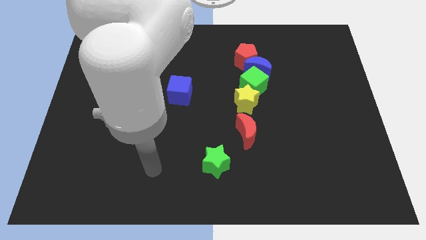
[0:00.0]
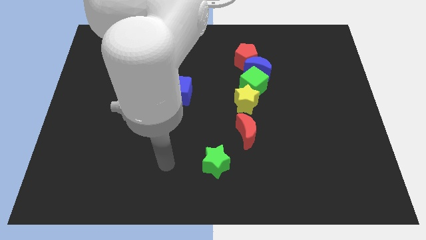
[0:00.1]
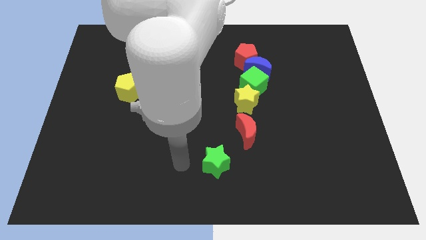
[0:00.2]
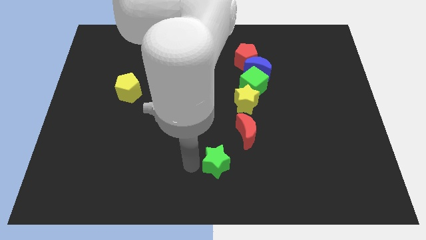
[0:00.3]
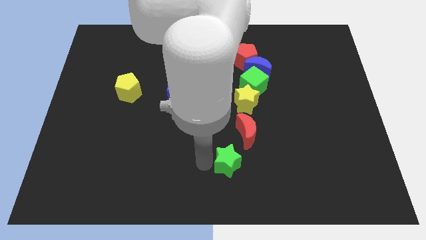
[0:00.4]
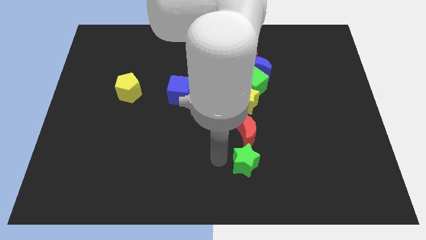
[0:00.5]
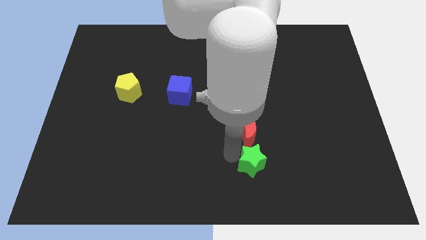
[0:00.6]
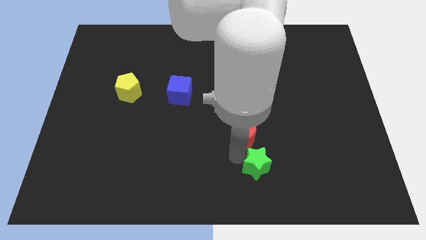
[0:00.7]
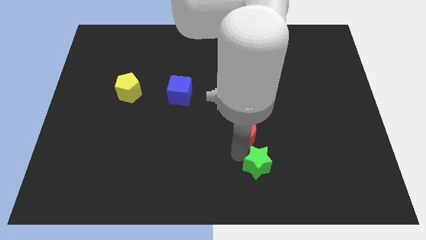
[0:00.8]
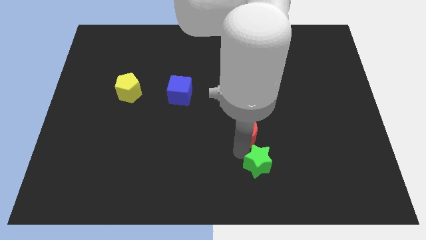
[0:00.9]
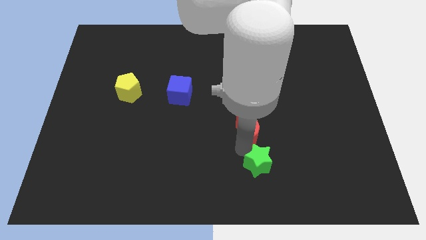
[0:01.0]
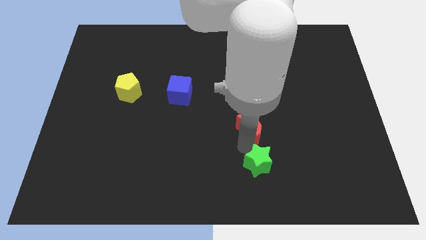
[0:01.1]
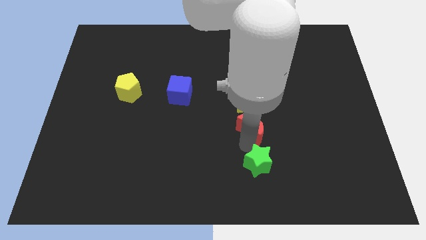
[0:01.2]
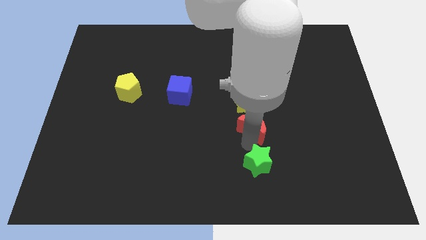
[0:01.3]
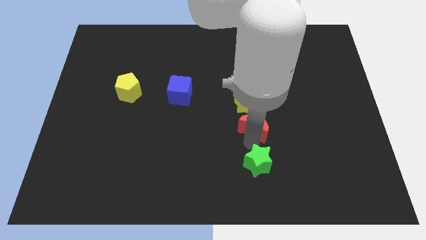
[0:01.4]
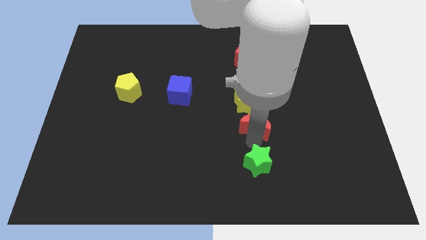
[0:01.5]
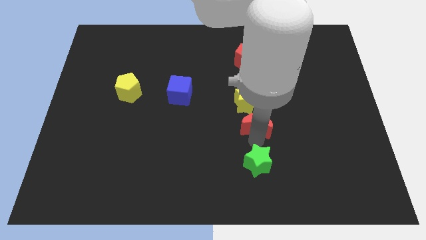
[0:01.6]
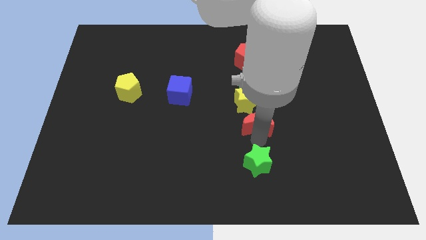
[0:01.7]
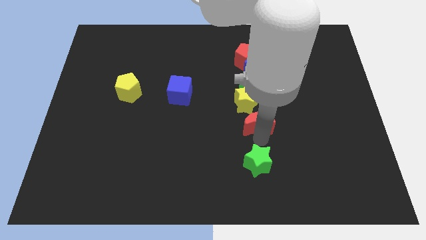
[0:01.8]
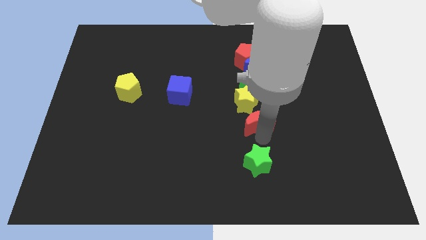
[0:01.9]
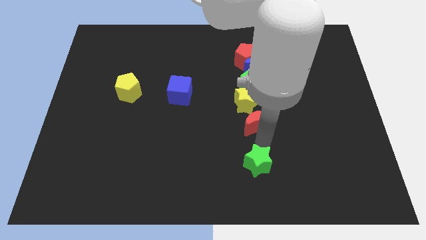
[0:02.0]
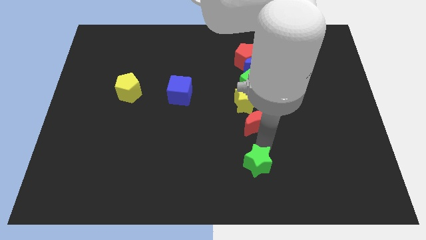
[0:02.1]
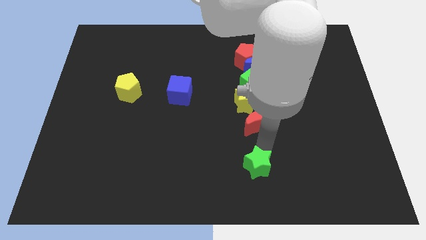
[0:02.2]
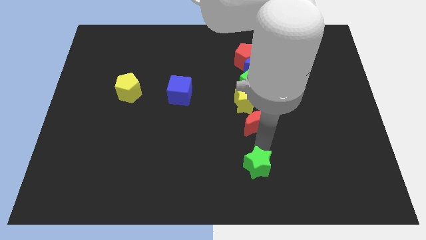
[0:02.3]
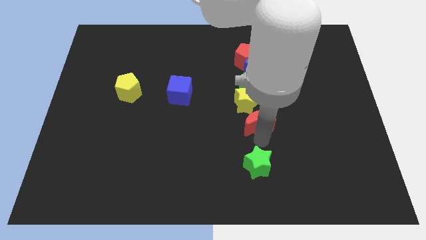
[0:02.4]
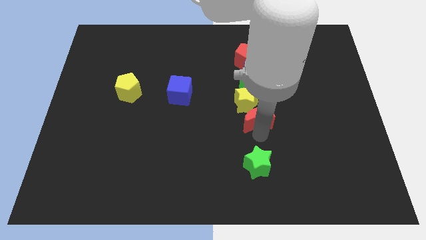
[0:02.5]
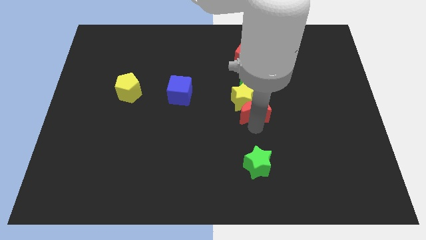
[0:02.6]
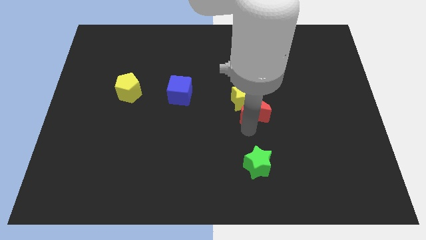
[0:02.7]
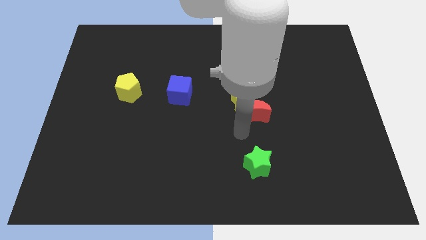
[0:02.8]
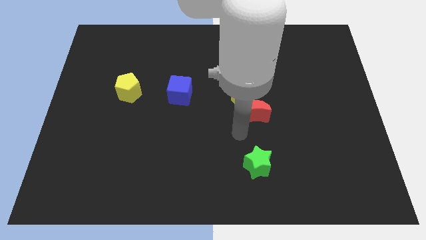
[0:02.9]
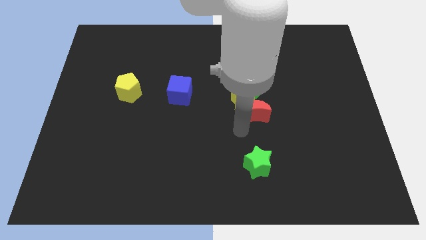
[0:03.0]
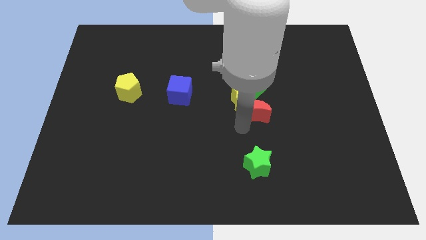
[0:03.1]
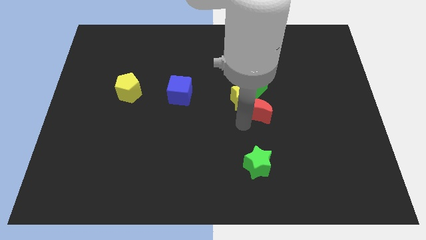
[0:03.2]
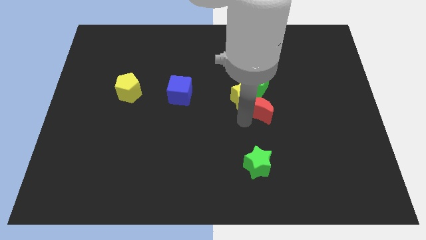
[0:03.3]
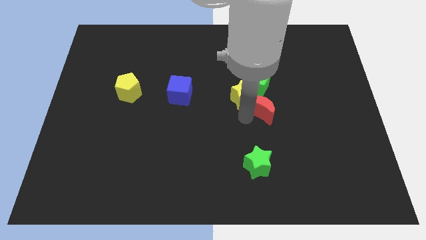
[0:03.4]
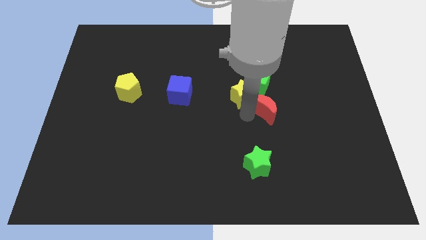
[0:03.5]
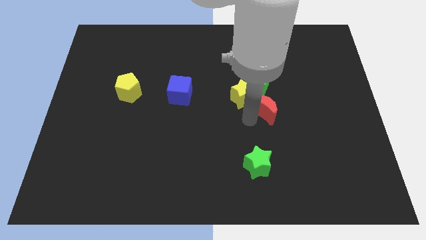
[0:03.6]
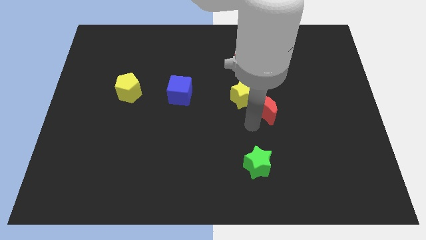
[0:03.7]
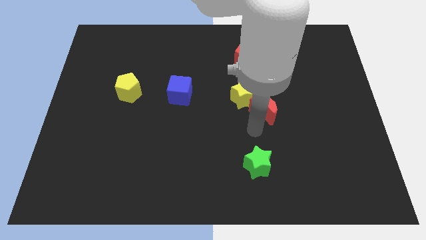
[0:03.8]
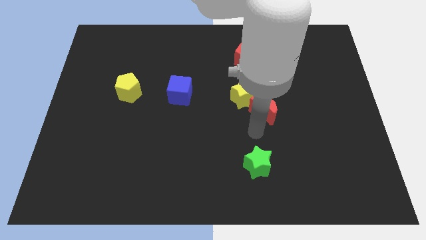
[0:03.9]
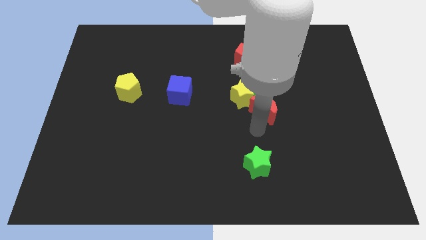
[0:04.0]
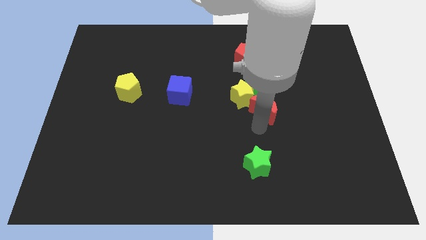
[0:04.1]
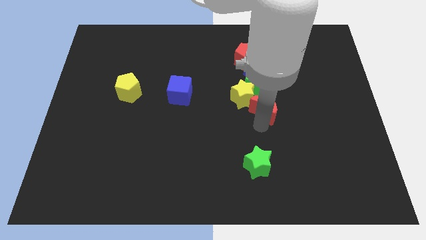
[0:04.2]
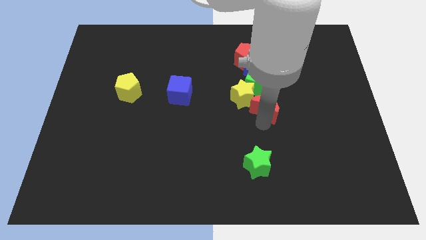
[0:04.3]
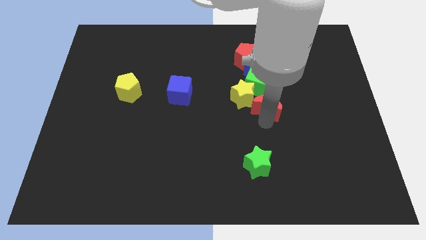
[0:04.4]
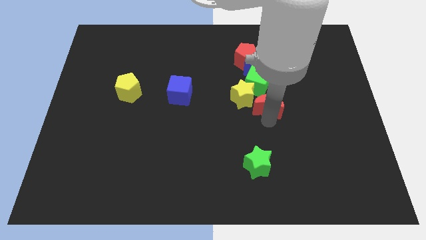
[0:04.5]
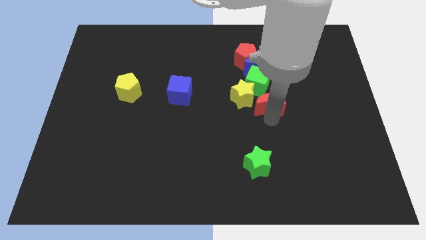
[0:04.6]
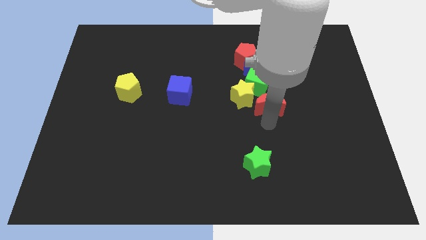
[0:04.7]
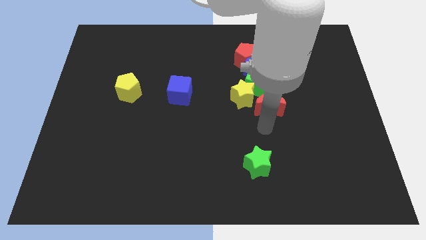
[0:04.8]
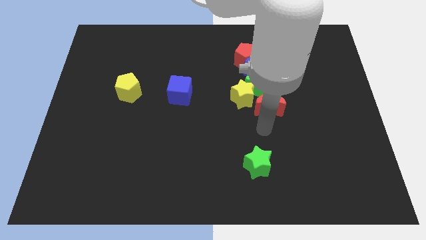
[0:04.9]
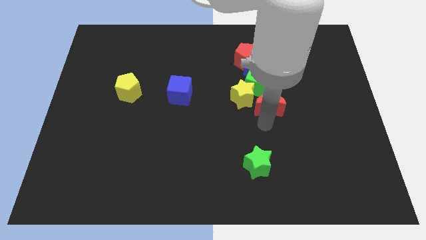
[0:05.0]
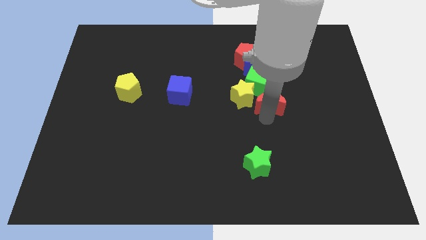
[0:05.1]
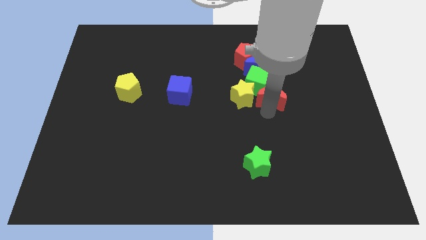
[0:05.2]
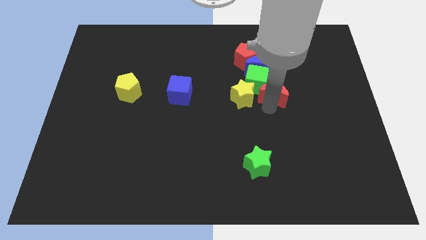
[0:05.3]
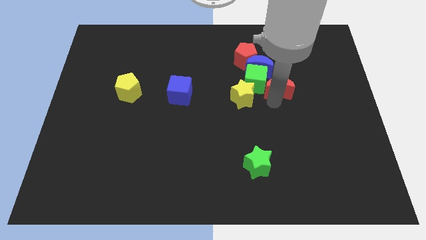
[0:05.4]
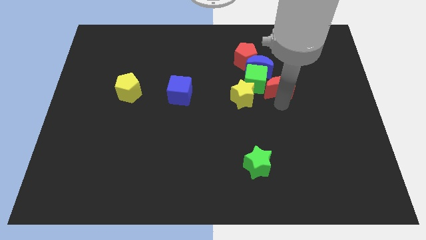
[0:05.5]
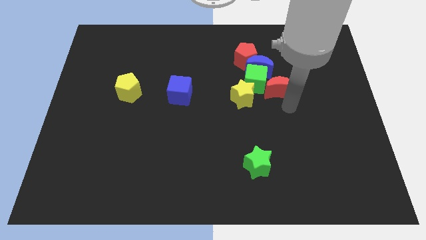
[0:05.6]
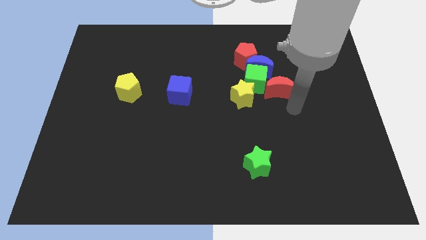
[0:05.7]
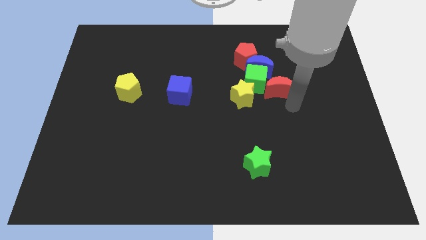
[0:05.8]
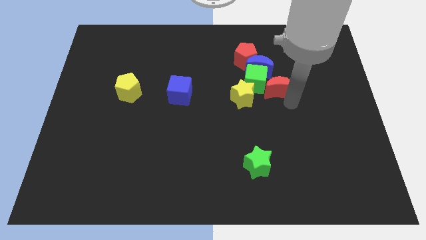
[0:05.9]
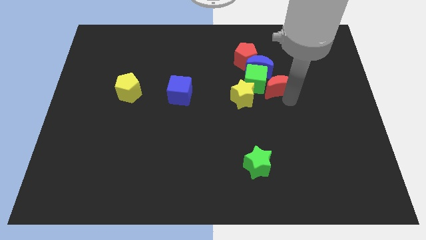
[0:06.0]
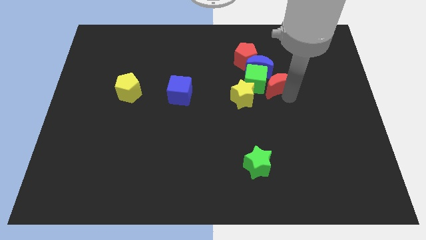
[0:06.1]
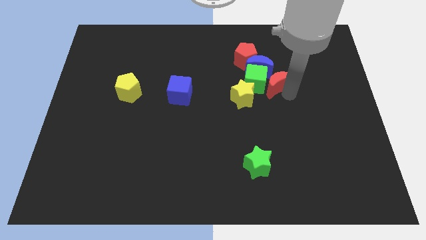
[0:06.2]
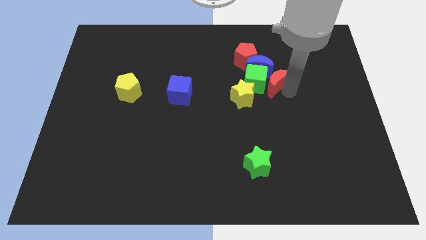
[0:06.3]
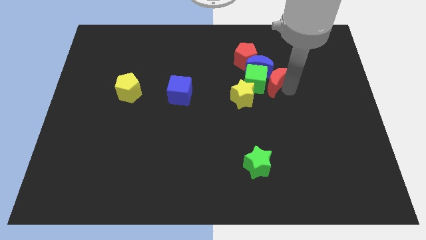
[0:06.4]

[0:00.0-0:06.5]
put the red moon towards the blue moon
